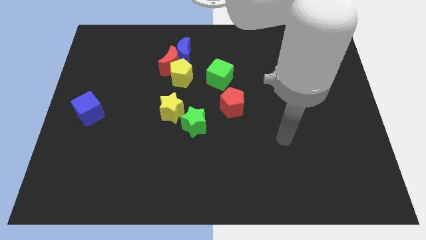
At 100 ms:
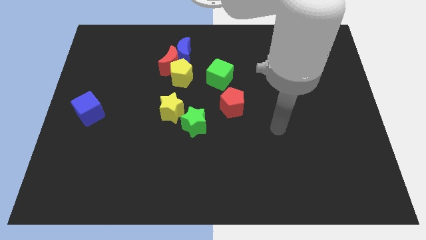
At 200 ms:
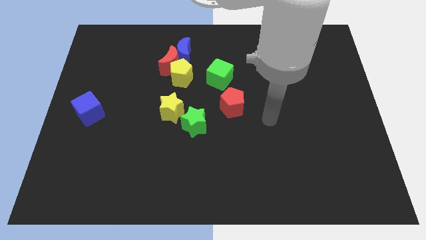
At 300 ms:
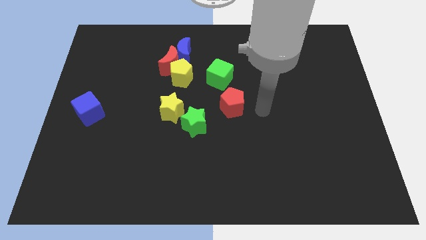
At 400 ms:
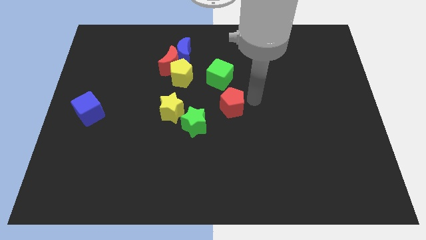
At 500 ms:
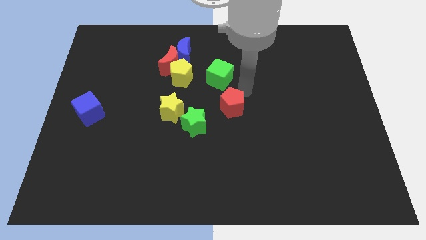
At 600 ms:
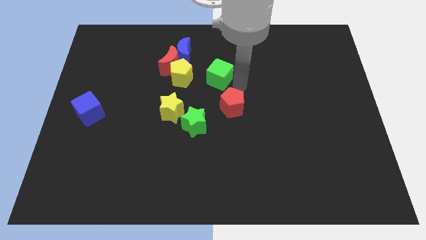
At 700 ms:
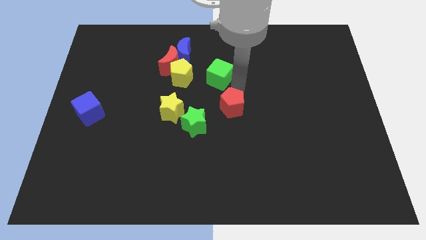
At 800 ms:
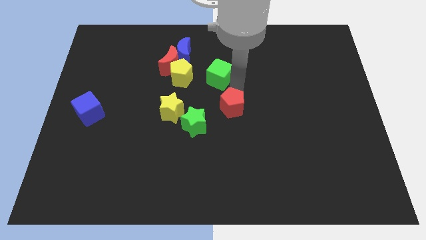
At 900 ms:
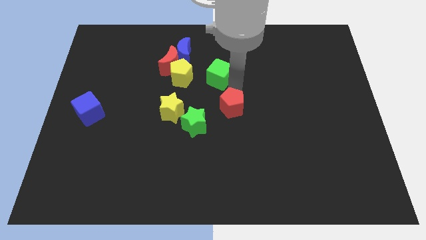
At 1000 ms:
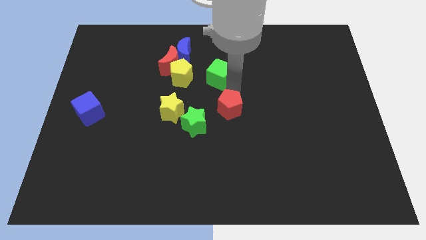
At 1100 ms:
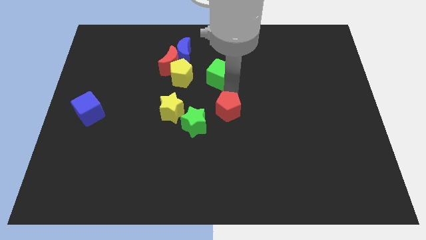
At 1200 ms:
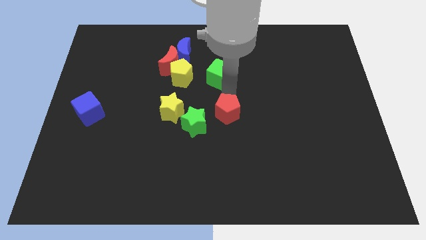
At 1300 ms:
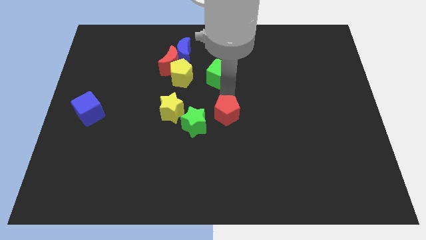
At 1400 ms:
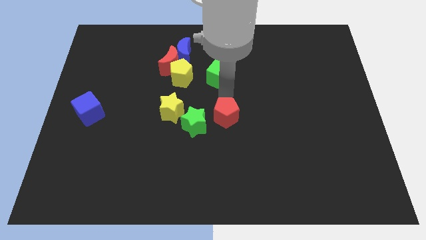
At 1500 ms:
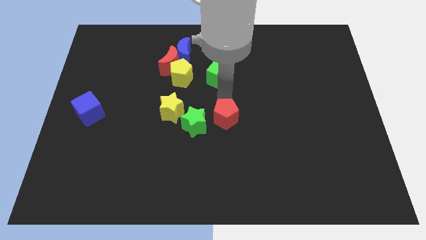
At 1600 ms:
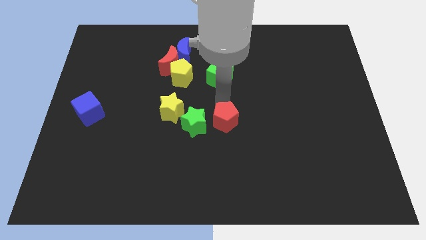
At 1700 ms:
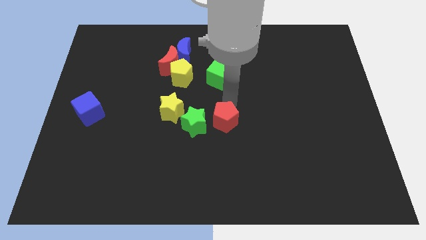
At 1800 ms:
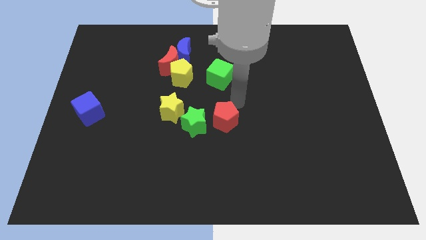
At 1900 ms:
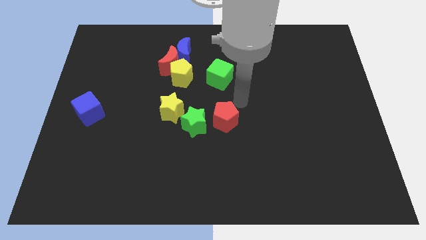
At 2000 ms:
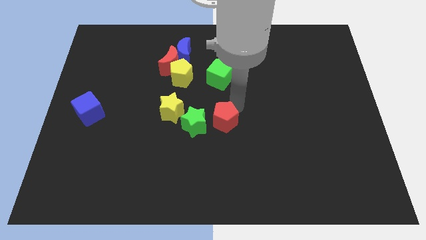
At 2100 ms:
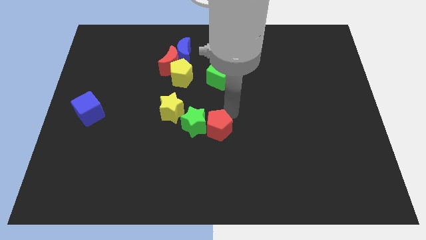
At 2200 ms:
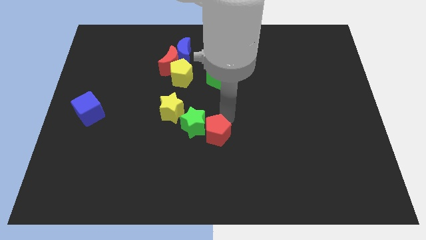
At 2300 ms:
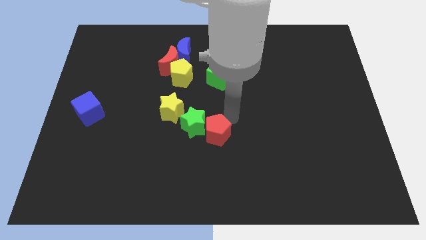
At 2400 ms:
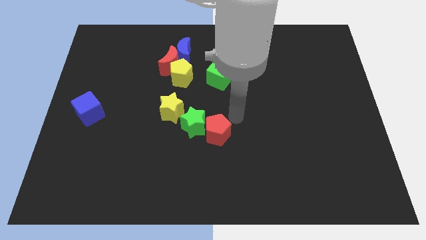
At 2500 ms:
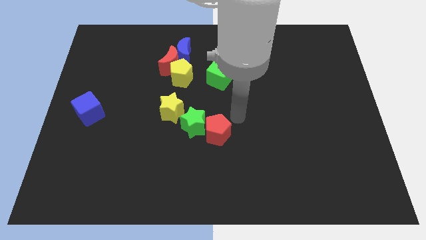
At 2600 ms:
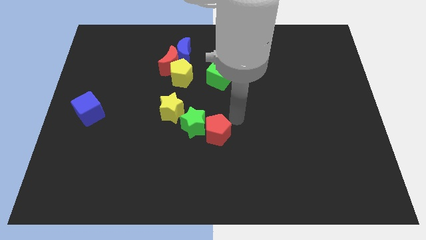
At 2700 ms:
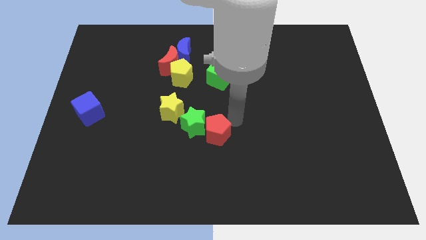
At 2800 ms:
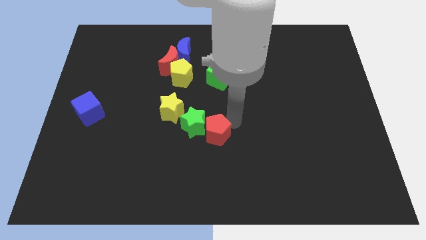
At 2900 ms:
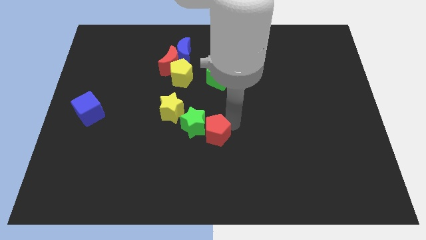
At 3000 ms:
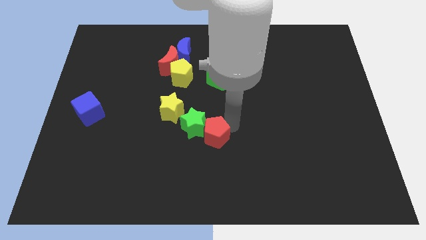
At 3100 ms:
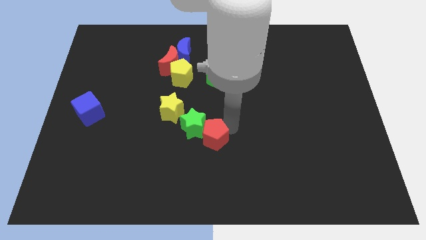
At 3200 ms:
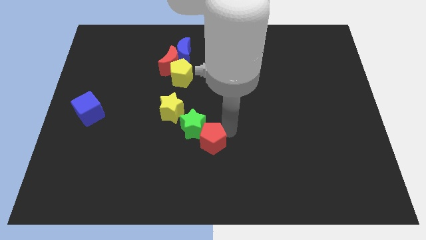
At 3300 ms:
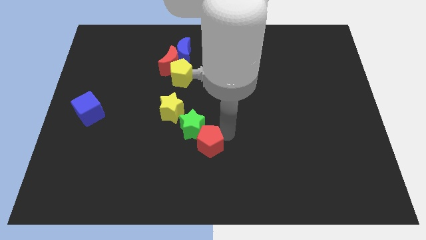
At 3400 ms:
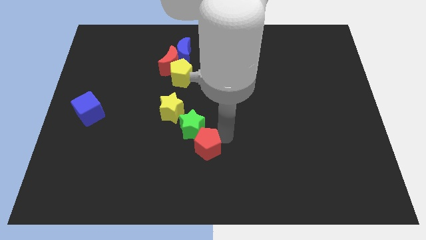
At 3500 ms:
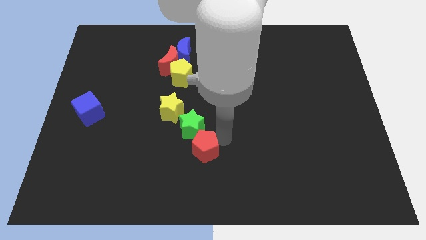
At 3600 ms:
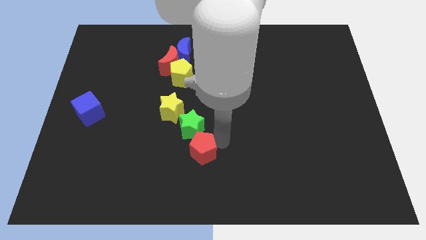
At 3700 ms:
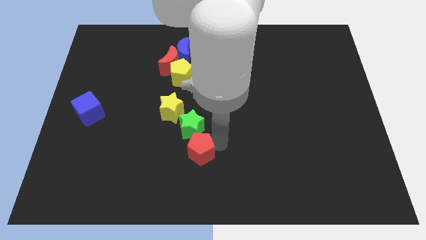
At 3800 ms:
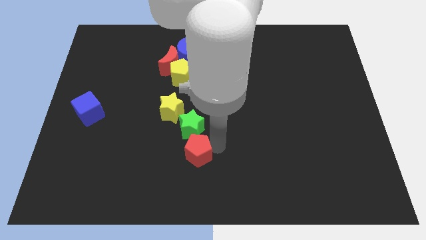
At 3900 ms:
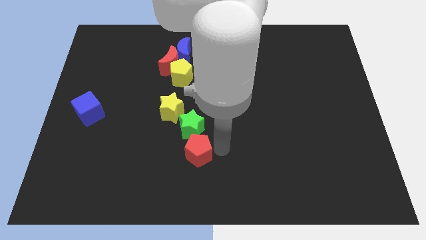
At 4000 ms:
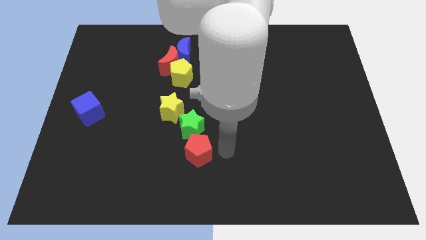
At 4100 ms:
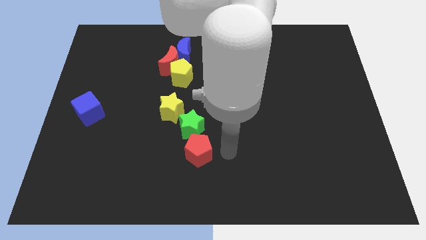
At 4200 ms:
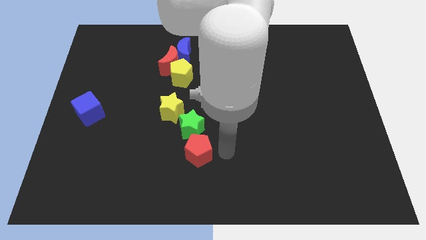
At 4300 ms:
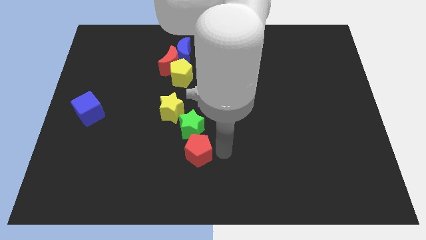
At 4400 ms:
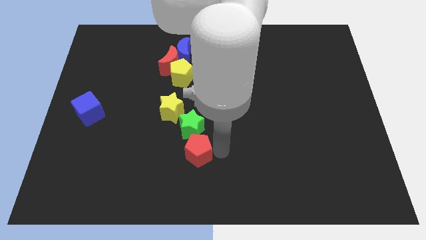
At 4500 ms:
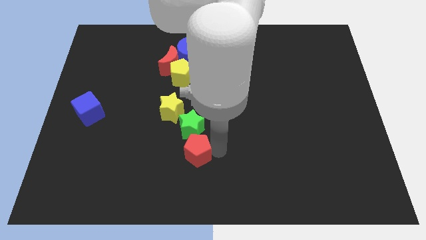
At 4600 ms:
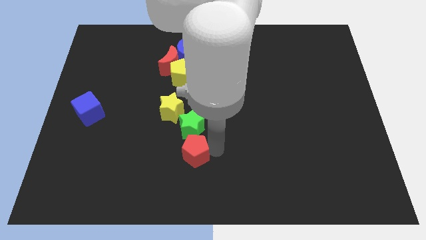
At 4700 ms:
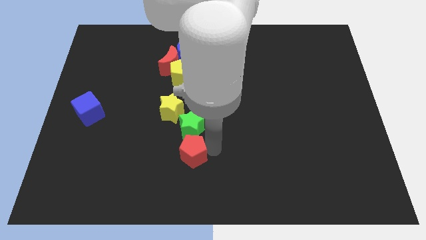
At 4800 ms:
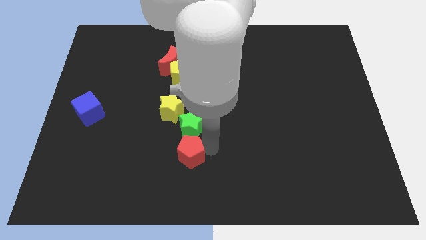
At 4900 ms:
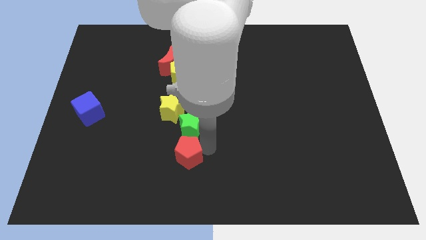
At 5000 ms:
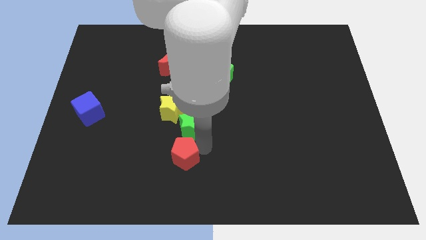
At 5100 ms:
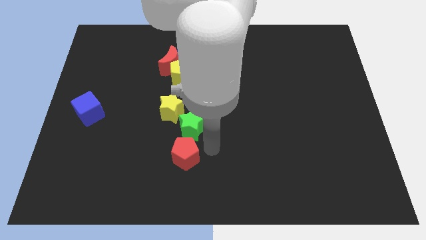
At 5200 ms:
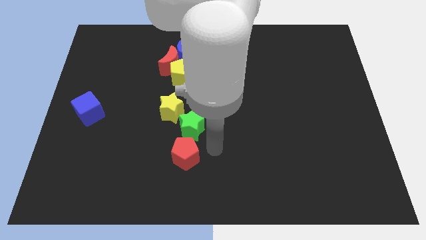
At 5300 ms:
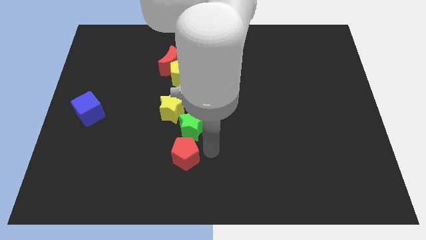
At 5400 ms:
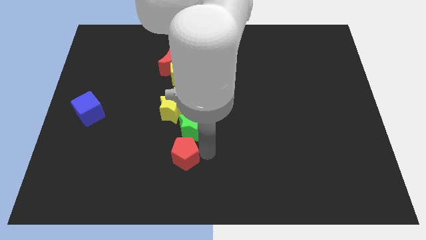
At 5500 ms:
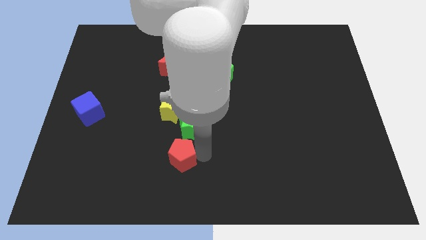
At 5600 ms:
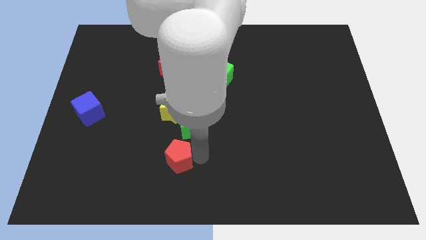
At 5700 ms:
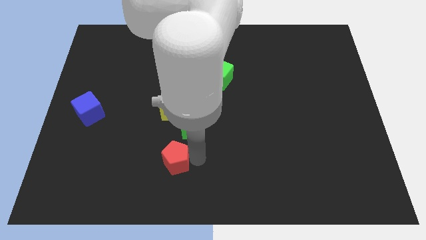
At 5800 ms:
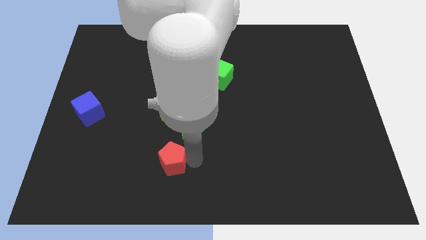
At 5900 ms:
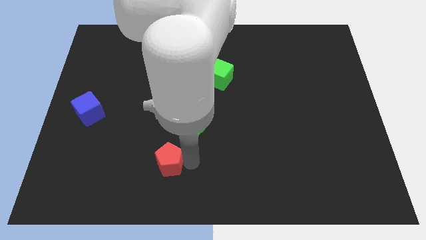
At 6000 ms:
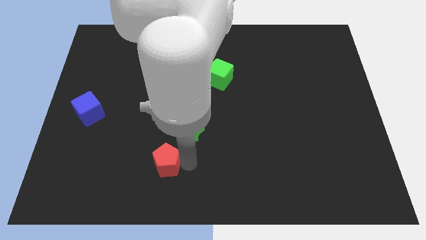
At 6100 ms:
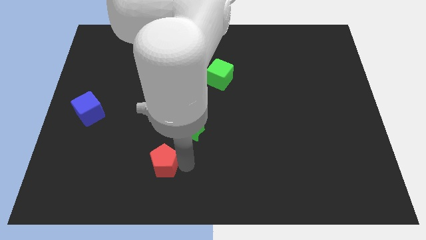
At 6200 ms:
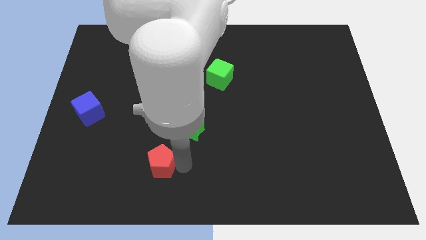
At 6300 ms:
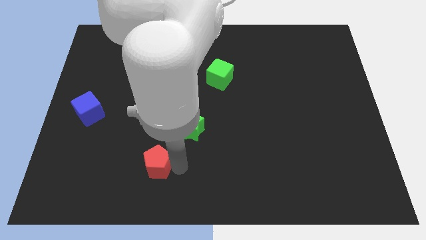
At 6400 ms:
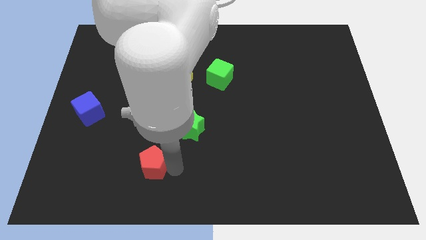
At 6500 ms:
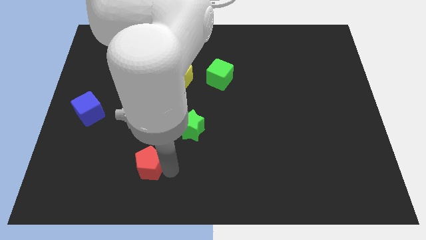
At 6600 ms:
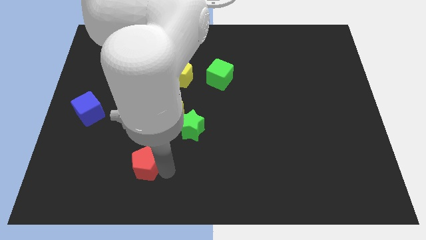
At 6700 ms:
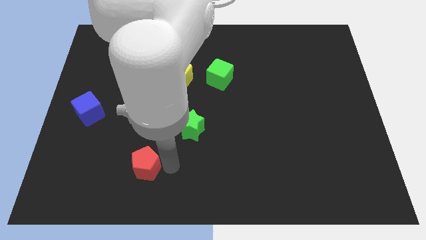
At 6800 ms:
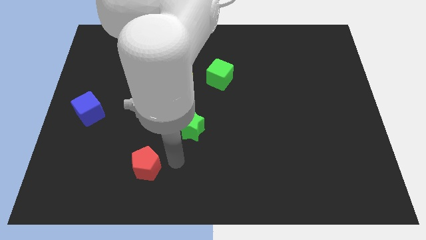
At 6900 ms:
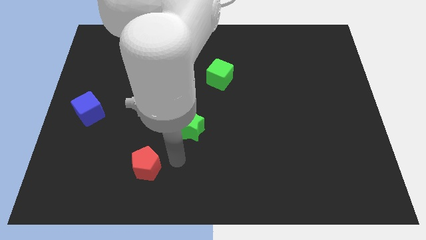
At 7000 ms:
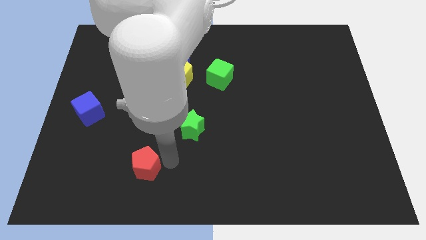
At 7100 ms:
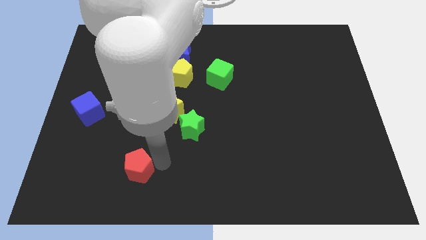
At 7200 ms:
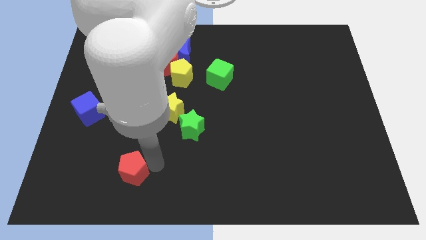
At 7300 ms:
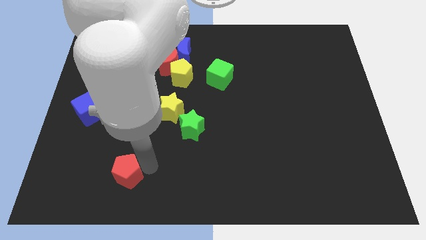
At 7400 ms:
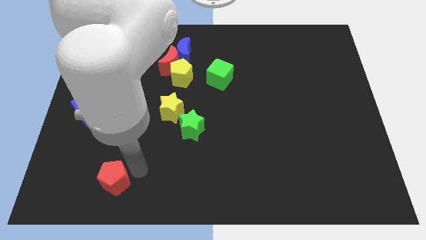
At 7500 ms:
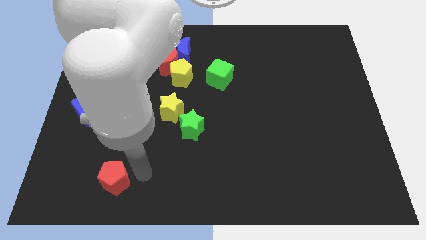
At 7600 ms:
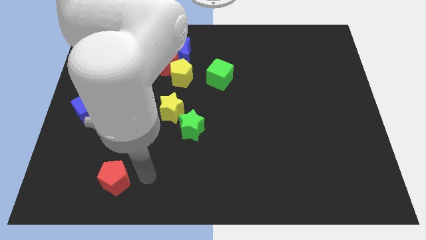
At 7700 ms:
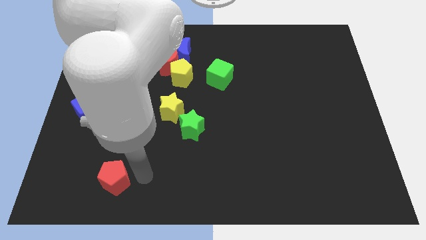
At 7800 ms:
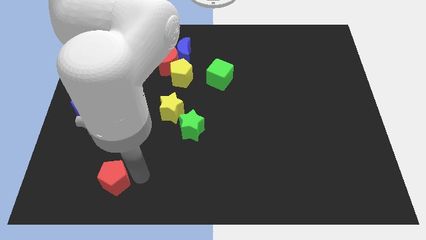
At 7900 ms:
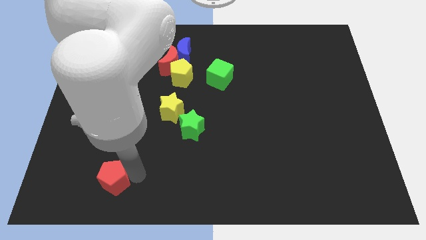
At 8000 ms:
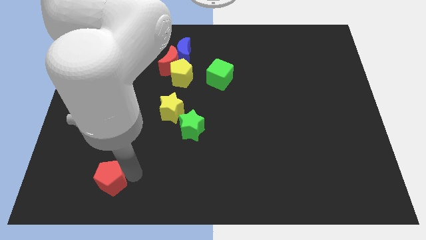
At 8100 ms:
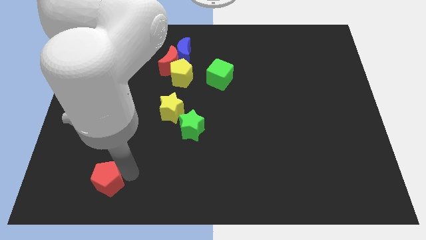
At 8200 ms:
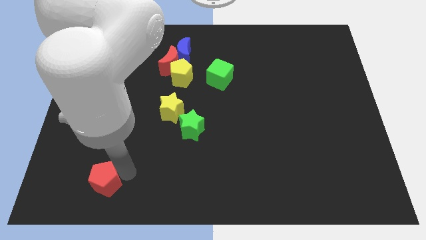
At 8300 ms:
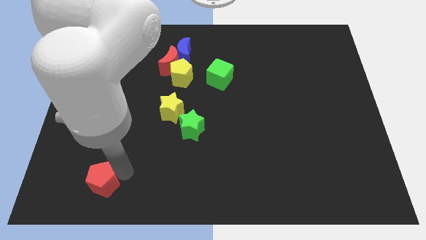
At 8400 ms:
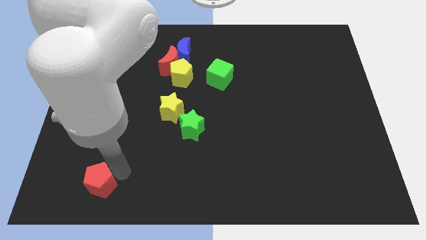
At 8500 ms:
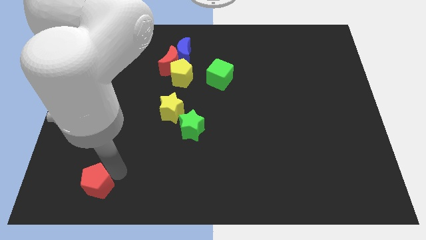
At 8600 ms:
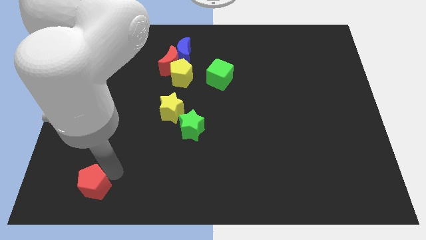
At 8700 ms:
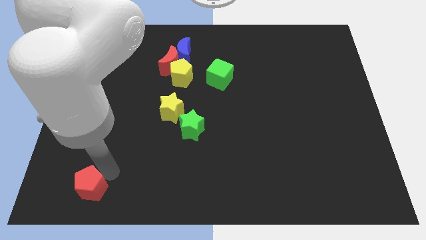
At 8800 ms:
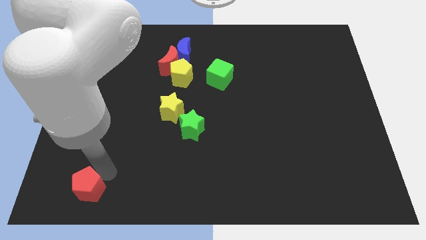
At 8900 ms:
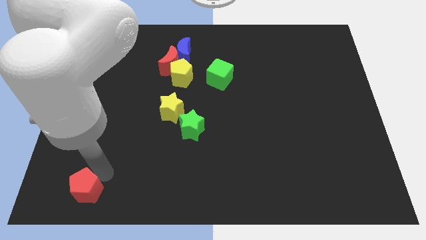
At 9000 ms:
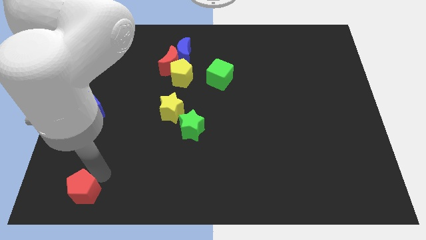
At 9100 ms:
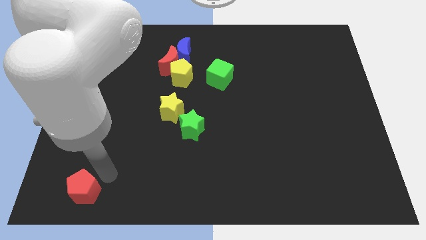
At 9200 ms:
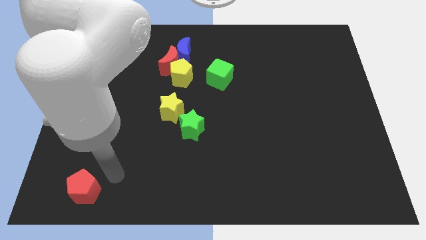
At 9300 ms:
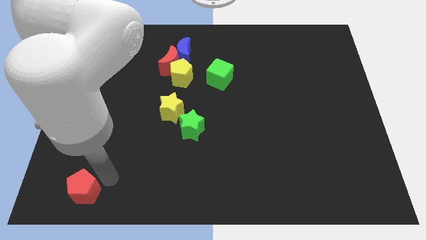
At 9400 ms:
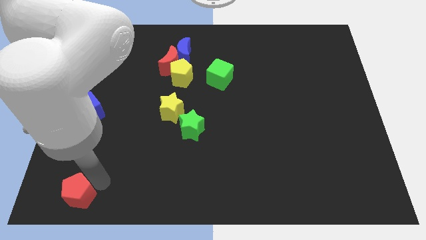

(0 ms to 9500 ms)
move the red pentagon to the bottom left corner
